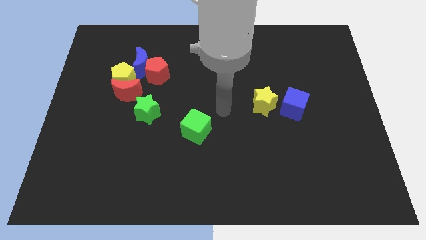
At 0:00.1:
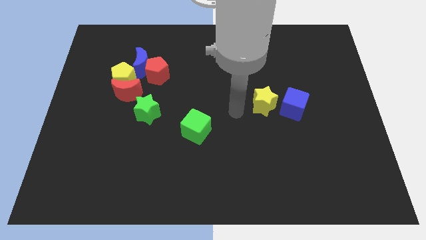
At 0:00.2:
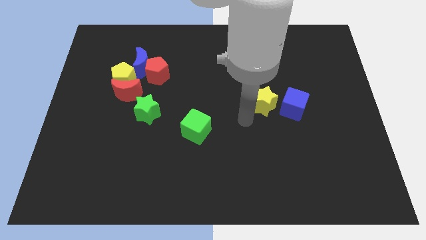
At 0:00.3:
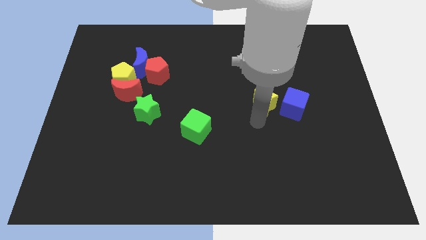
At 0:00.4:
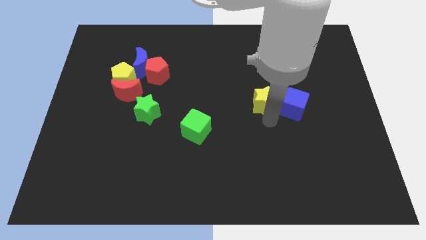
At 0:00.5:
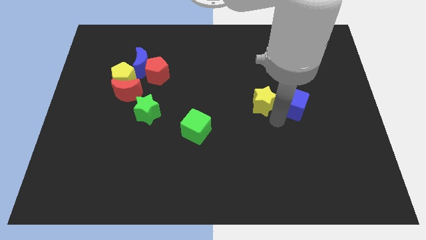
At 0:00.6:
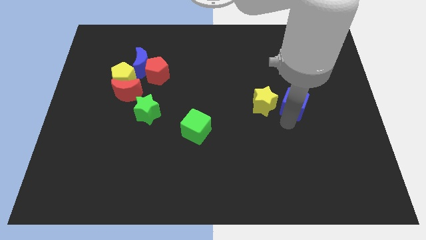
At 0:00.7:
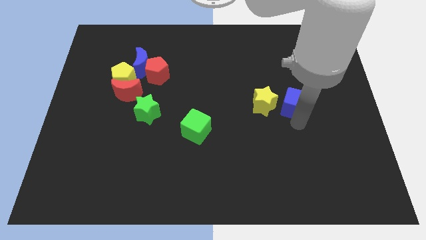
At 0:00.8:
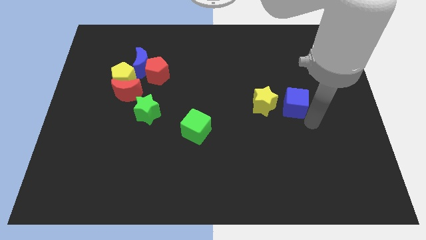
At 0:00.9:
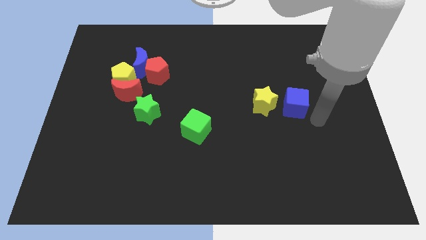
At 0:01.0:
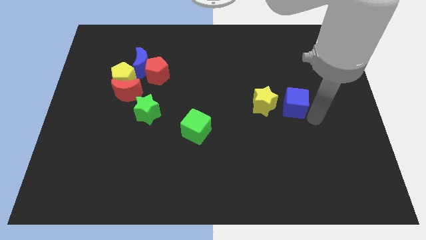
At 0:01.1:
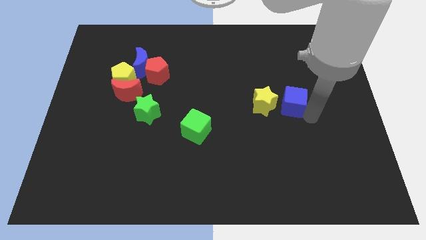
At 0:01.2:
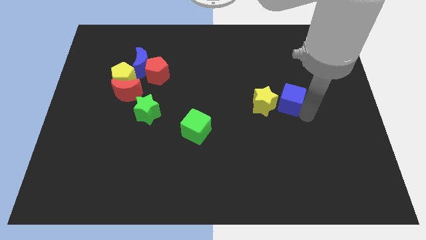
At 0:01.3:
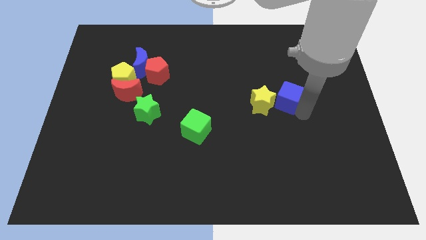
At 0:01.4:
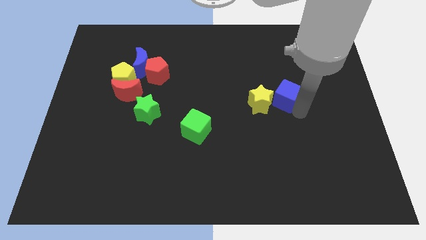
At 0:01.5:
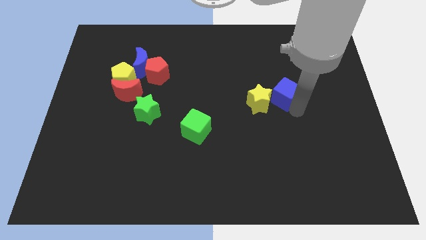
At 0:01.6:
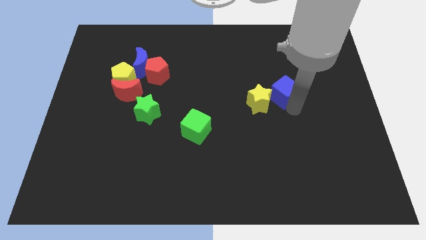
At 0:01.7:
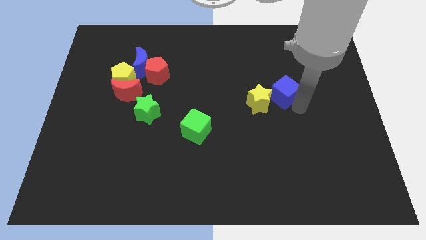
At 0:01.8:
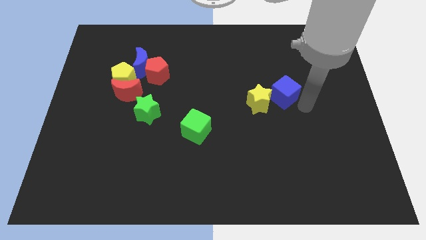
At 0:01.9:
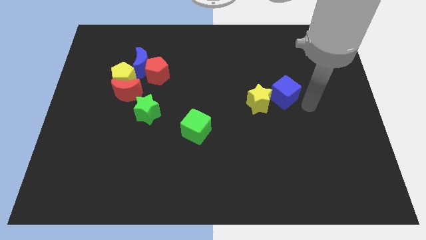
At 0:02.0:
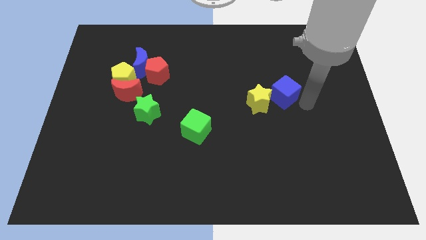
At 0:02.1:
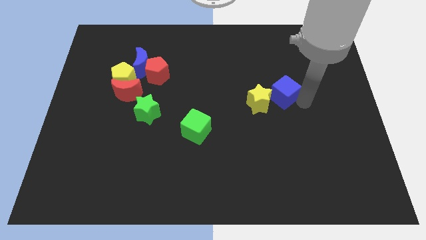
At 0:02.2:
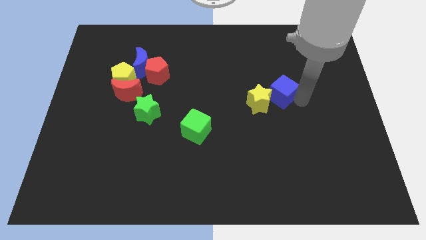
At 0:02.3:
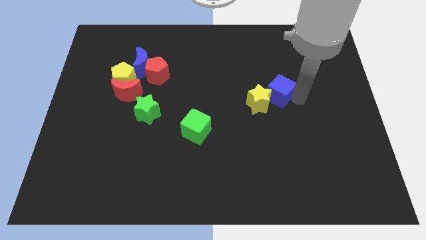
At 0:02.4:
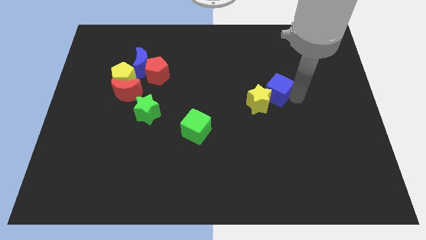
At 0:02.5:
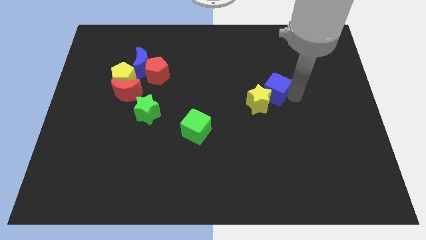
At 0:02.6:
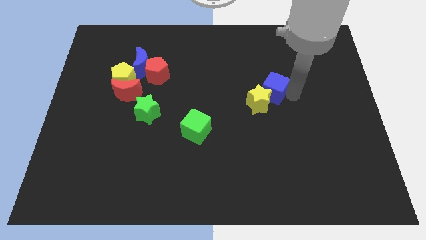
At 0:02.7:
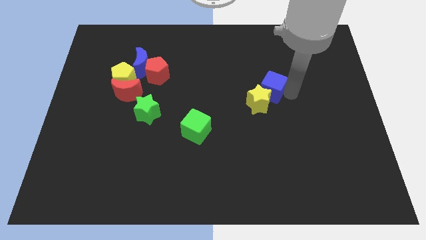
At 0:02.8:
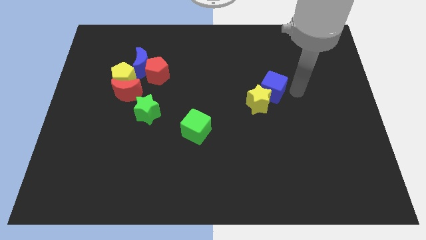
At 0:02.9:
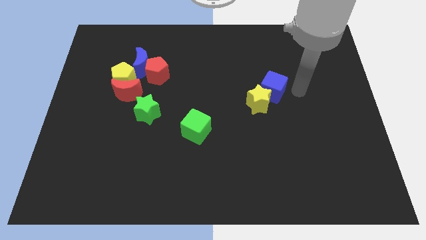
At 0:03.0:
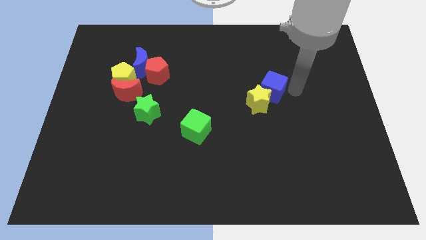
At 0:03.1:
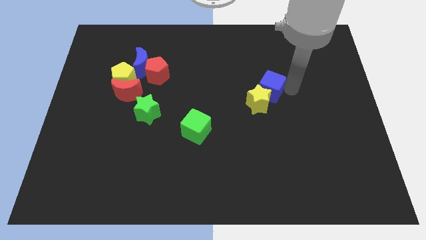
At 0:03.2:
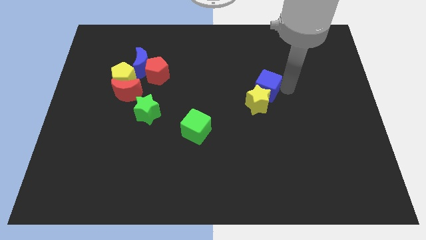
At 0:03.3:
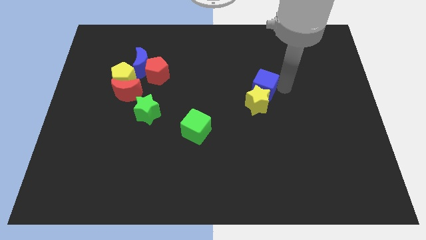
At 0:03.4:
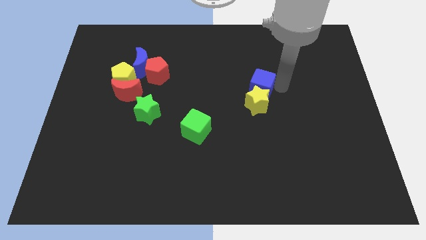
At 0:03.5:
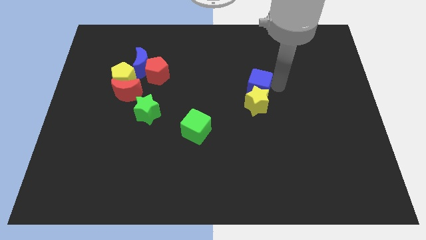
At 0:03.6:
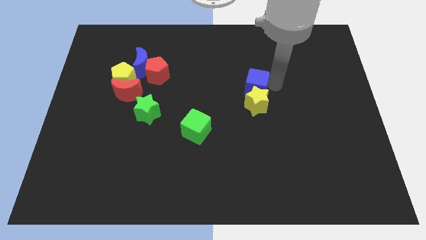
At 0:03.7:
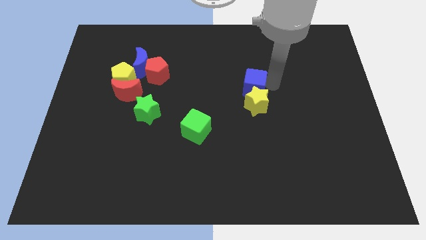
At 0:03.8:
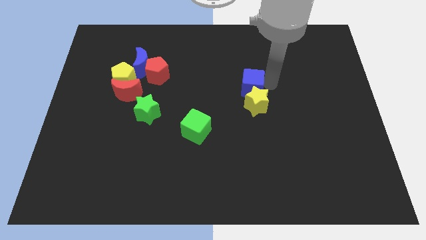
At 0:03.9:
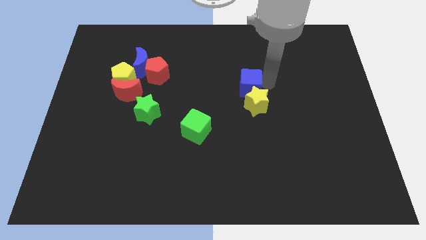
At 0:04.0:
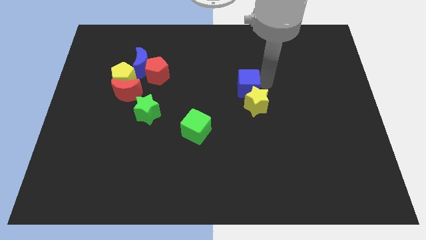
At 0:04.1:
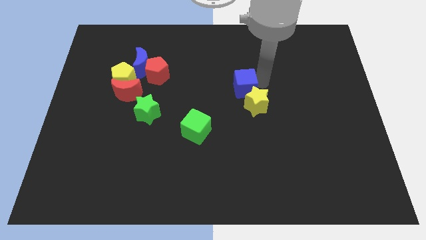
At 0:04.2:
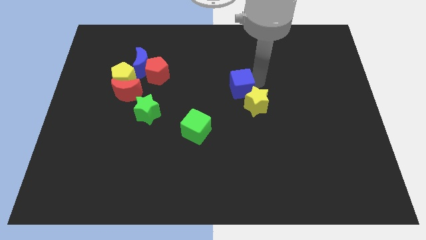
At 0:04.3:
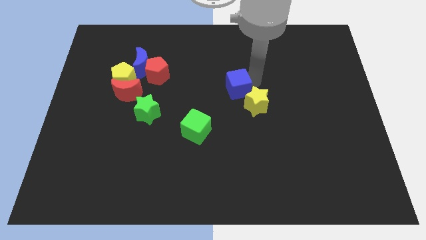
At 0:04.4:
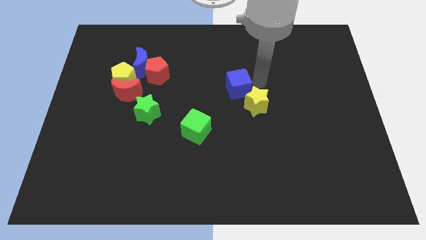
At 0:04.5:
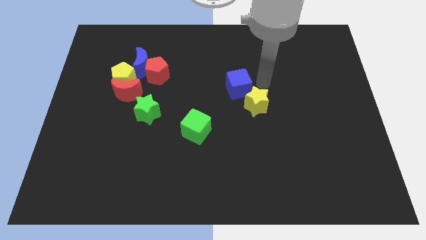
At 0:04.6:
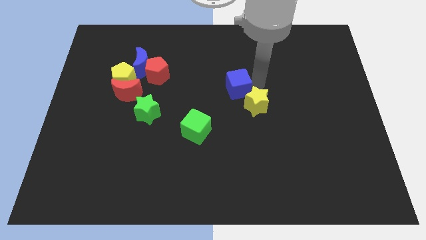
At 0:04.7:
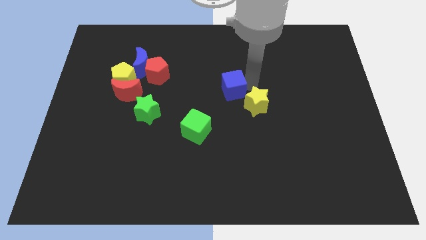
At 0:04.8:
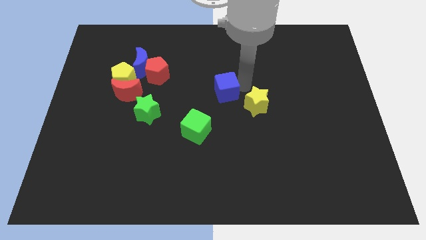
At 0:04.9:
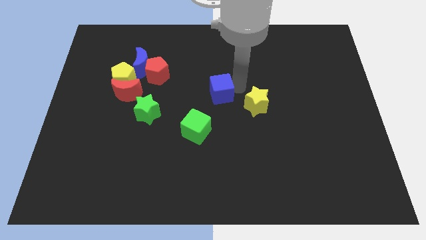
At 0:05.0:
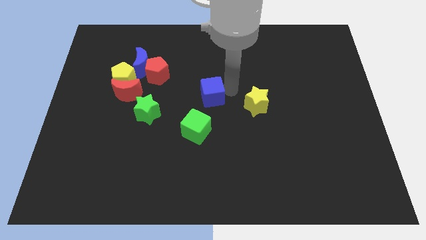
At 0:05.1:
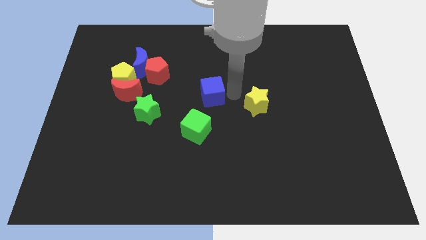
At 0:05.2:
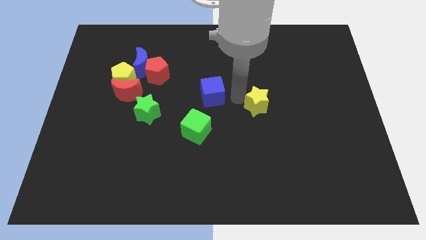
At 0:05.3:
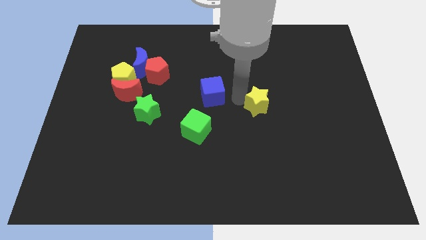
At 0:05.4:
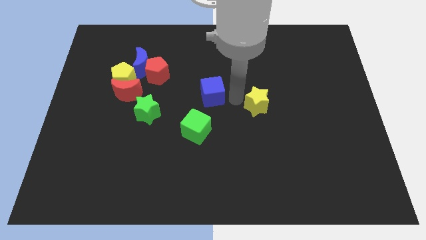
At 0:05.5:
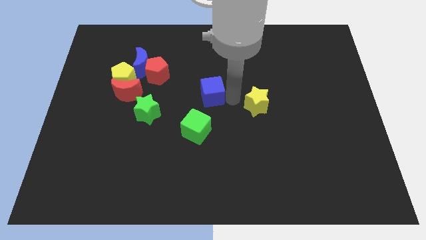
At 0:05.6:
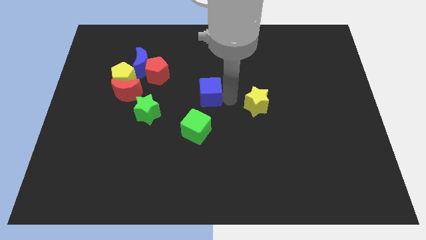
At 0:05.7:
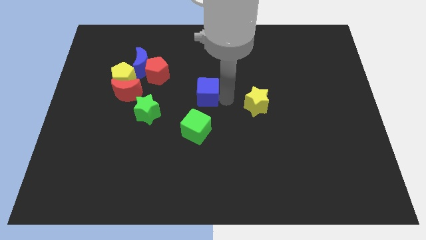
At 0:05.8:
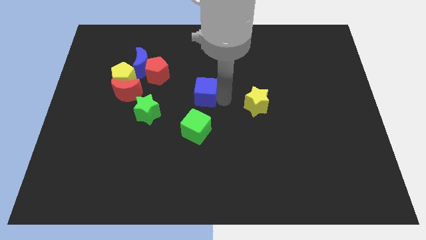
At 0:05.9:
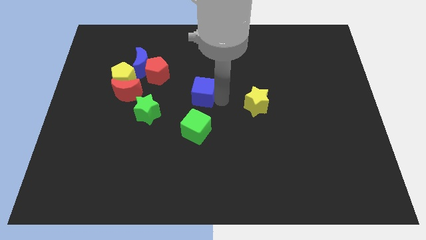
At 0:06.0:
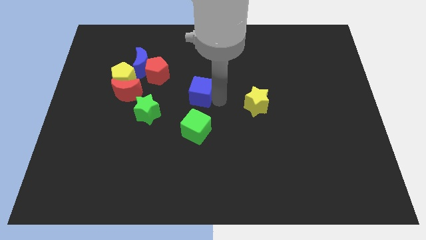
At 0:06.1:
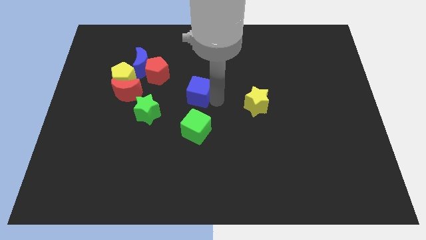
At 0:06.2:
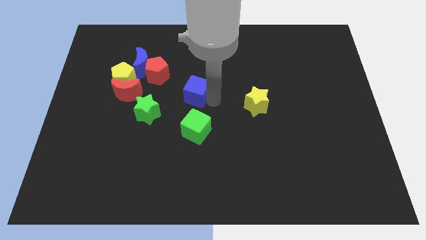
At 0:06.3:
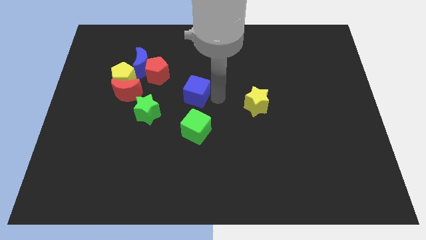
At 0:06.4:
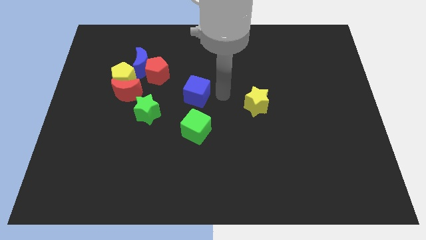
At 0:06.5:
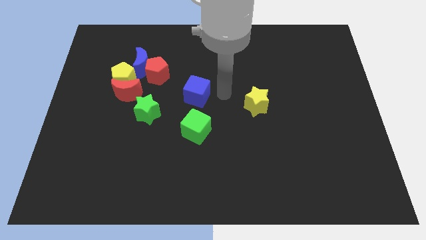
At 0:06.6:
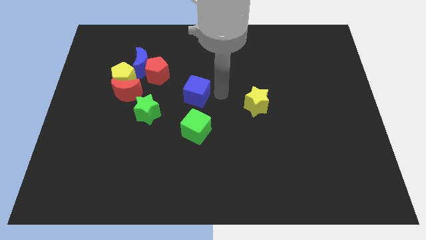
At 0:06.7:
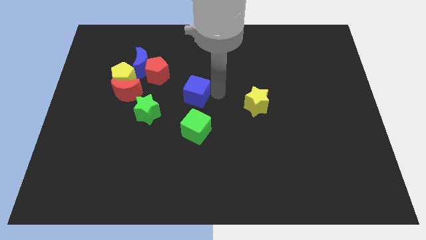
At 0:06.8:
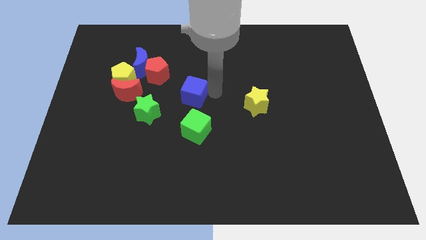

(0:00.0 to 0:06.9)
slide the blue cube to the top right side of the green star
